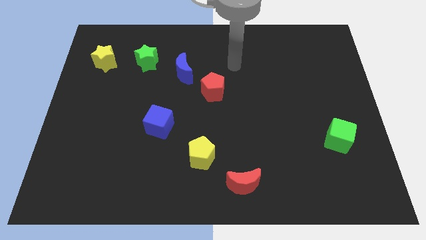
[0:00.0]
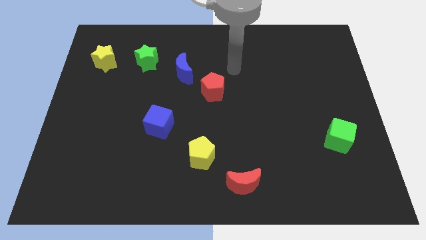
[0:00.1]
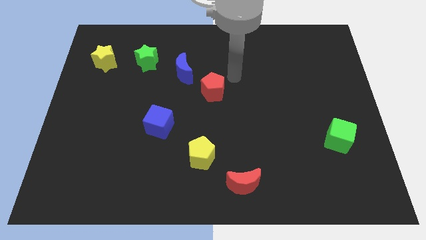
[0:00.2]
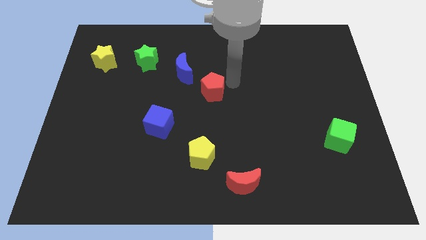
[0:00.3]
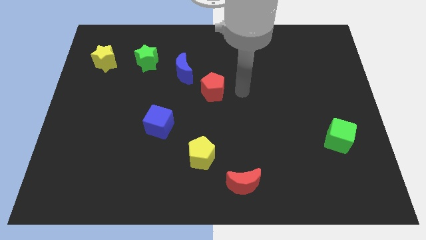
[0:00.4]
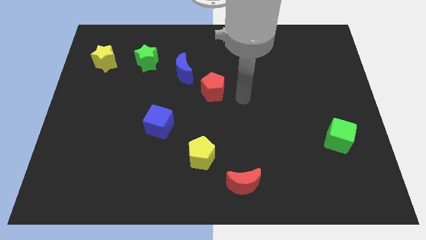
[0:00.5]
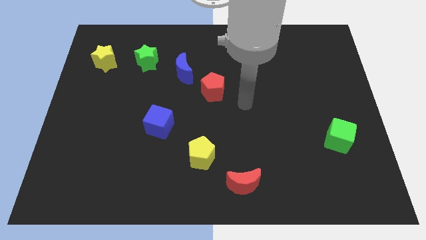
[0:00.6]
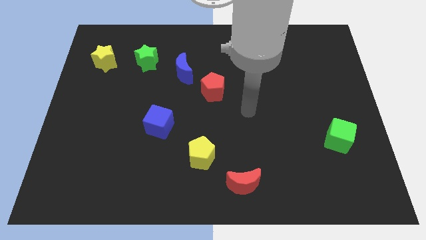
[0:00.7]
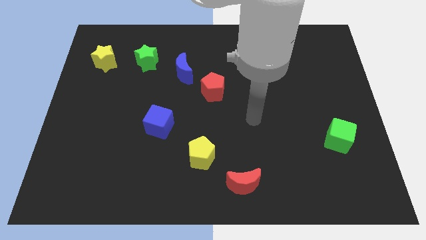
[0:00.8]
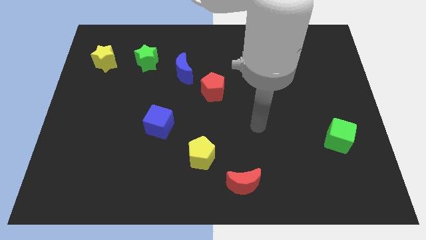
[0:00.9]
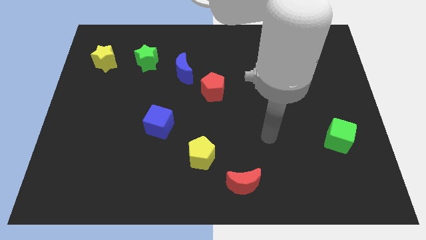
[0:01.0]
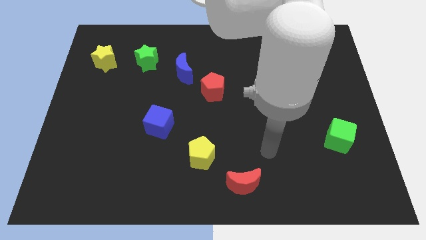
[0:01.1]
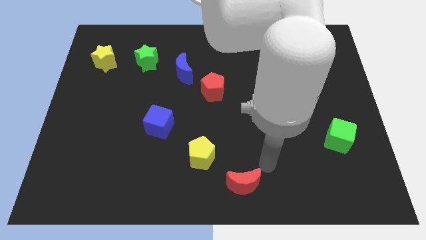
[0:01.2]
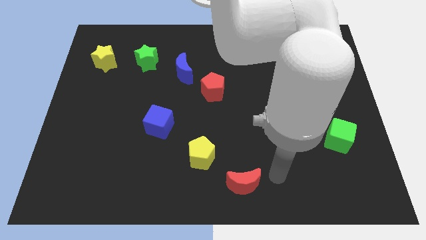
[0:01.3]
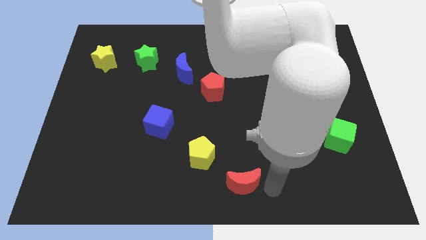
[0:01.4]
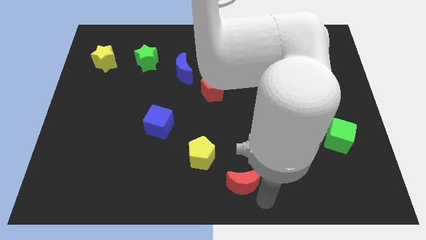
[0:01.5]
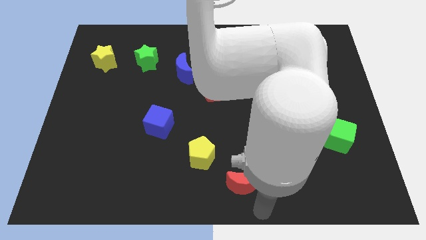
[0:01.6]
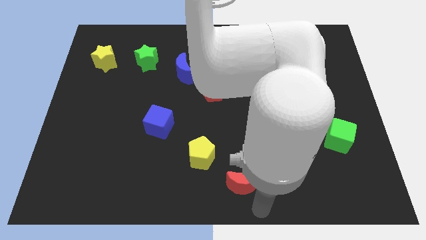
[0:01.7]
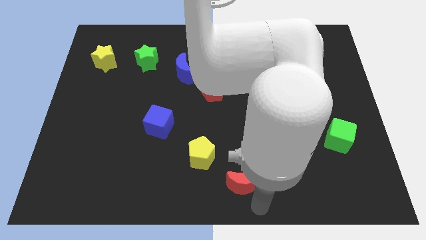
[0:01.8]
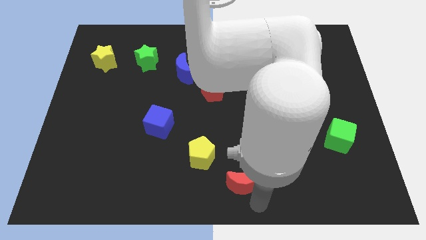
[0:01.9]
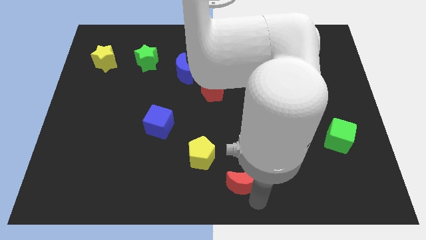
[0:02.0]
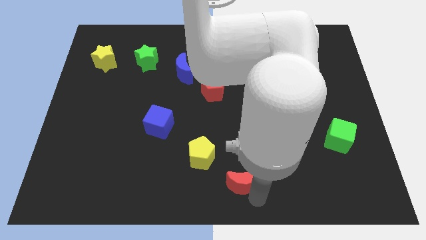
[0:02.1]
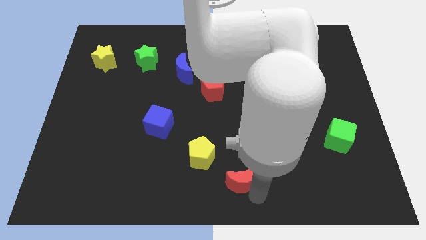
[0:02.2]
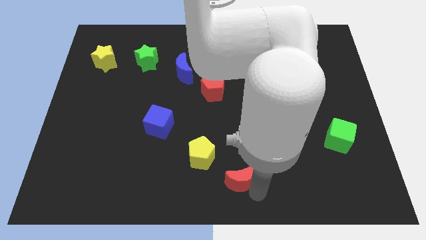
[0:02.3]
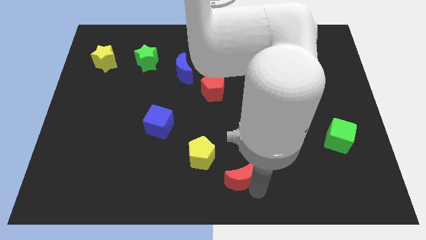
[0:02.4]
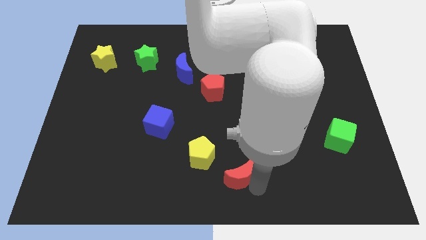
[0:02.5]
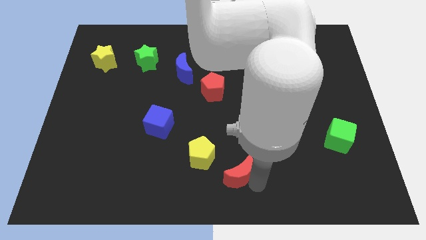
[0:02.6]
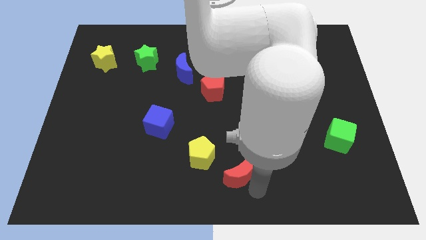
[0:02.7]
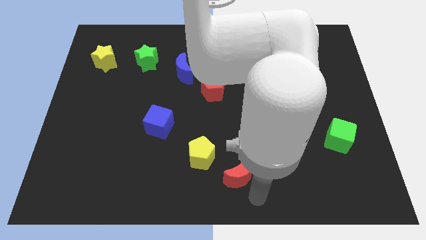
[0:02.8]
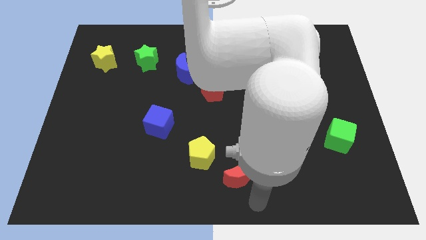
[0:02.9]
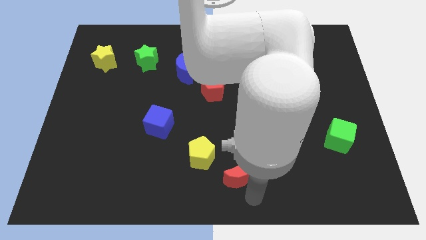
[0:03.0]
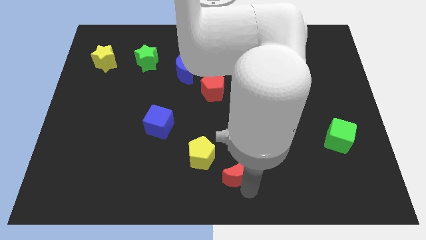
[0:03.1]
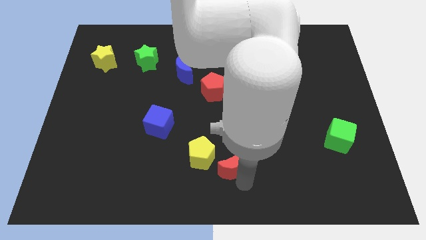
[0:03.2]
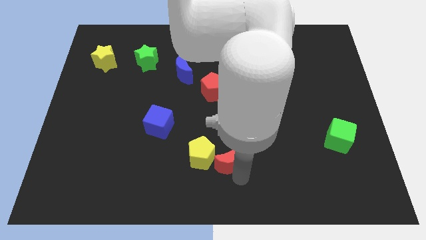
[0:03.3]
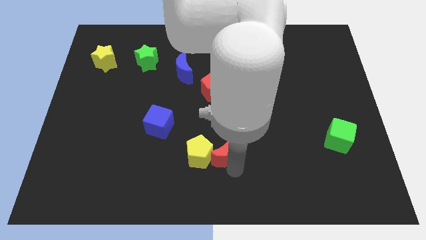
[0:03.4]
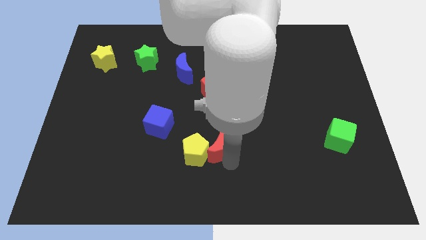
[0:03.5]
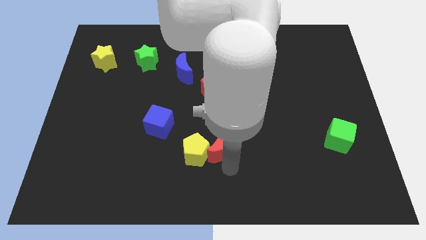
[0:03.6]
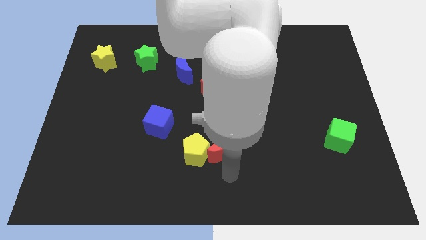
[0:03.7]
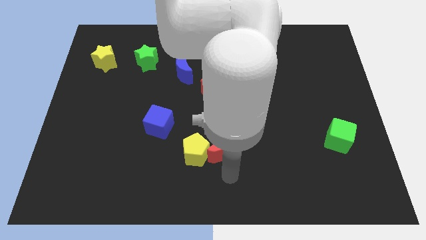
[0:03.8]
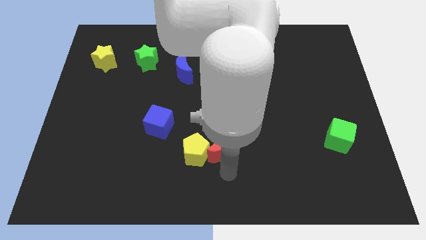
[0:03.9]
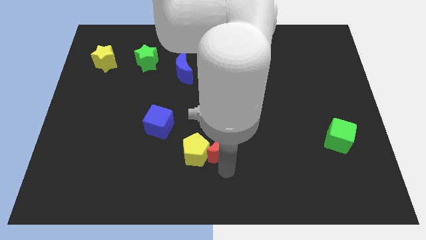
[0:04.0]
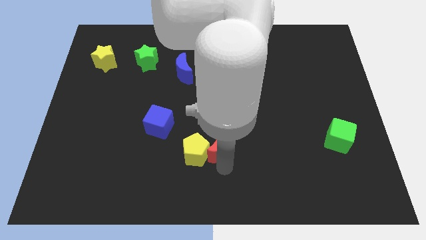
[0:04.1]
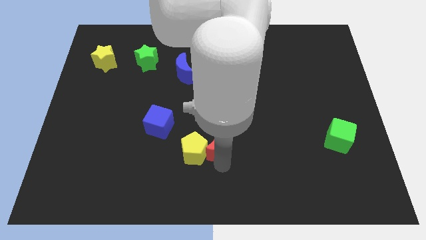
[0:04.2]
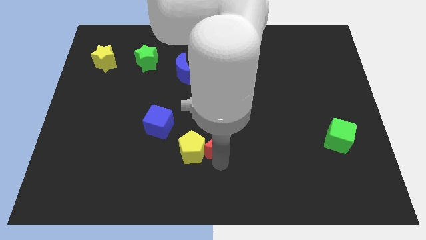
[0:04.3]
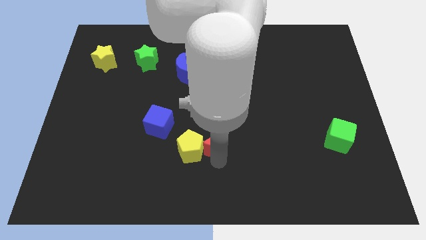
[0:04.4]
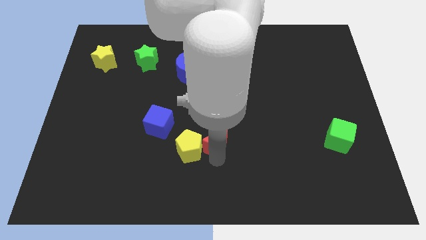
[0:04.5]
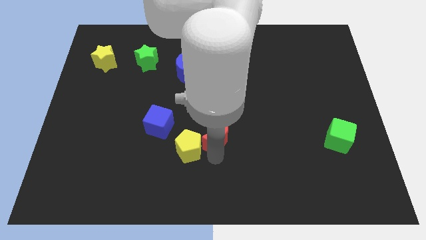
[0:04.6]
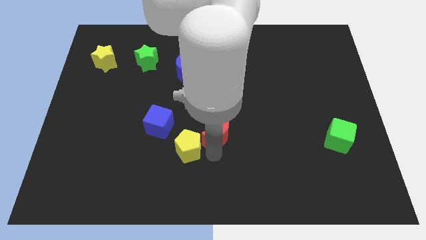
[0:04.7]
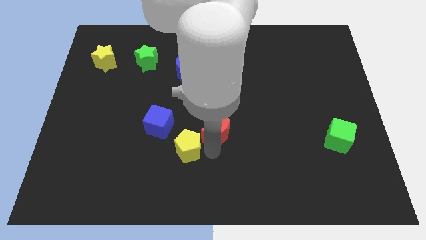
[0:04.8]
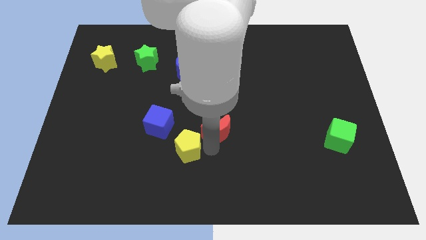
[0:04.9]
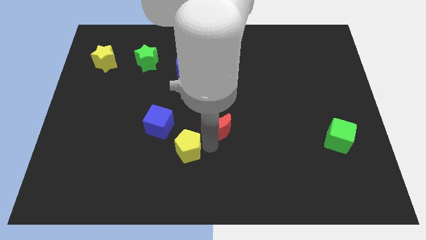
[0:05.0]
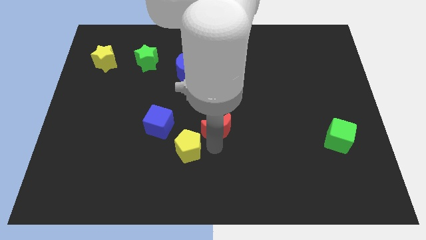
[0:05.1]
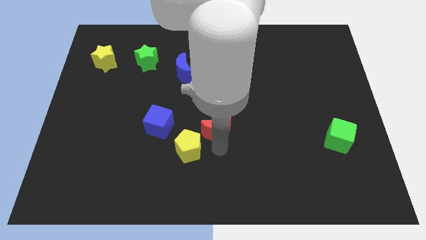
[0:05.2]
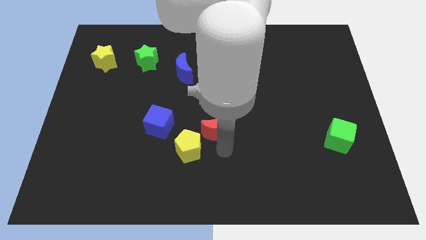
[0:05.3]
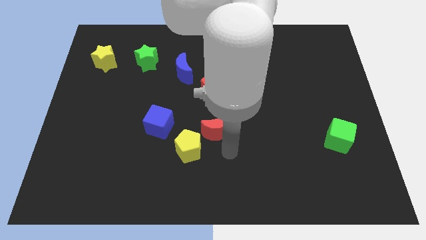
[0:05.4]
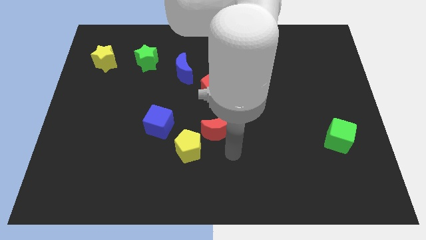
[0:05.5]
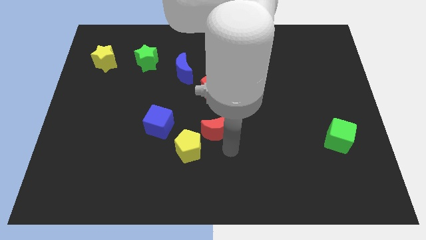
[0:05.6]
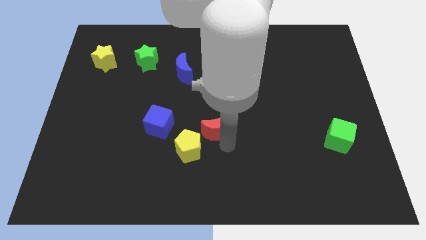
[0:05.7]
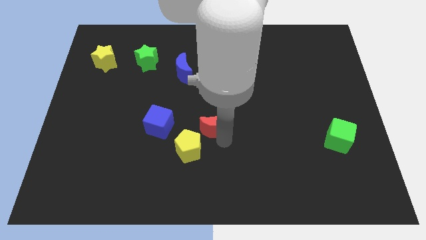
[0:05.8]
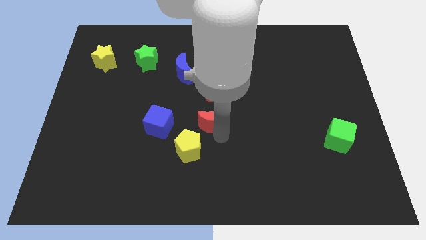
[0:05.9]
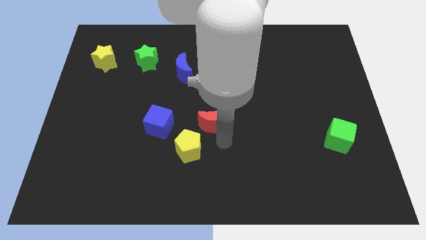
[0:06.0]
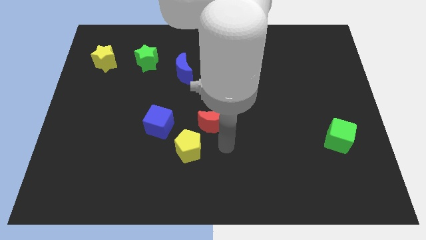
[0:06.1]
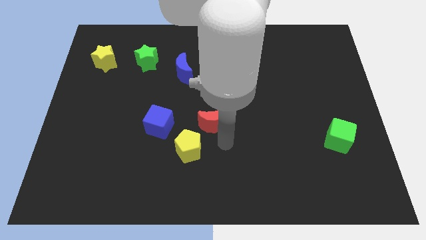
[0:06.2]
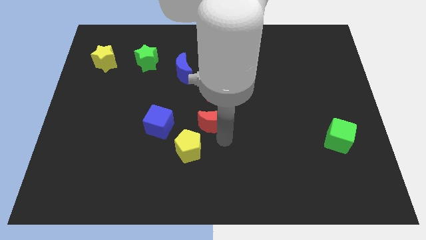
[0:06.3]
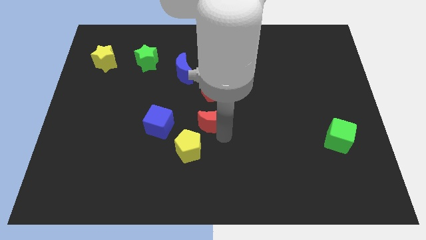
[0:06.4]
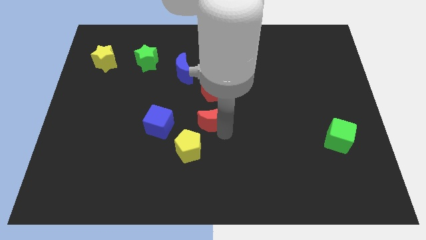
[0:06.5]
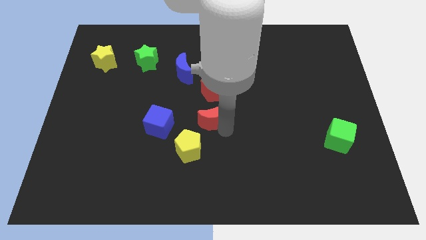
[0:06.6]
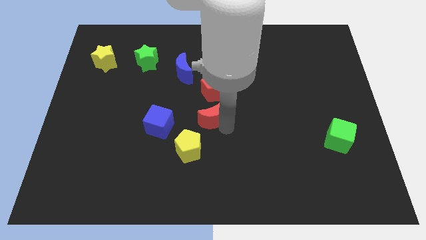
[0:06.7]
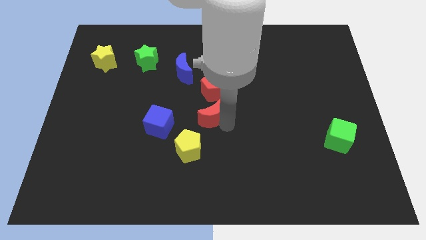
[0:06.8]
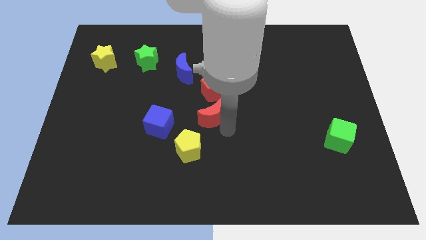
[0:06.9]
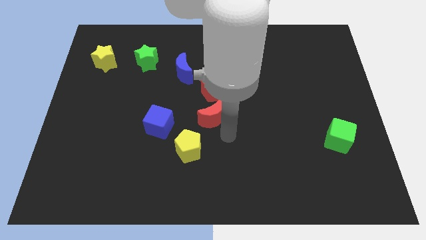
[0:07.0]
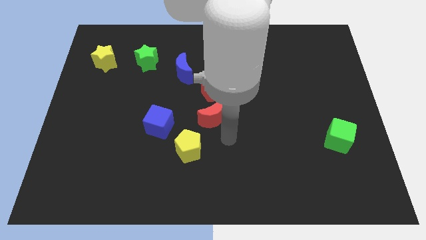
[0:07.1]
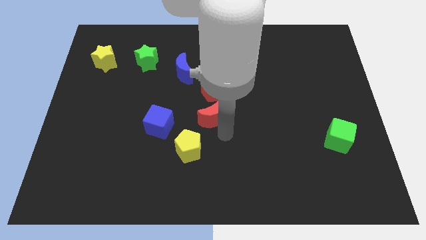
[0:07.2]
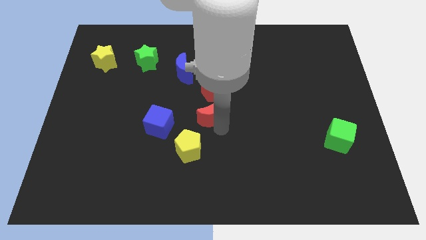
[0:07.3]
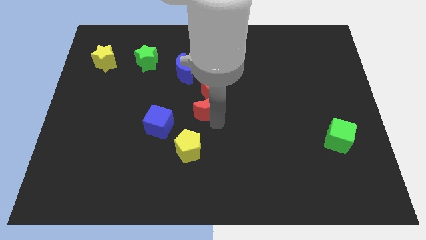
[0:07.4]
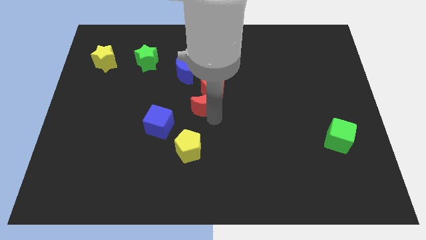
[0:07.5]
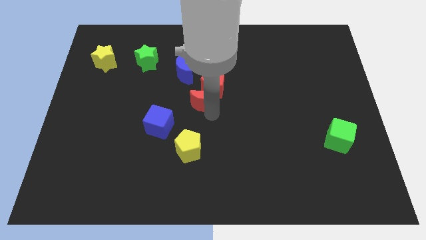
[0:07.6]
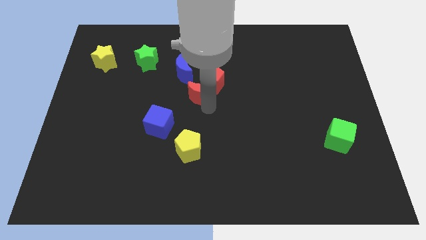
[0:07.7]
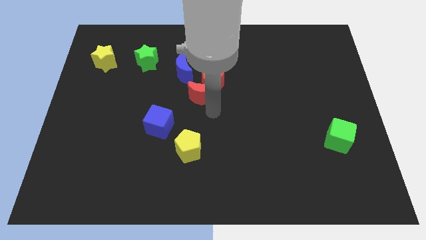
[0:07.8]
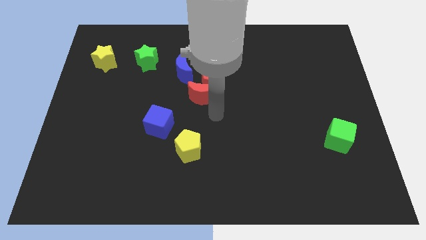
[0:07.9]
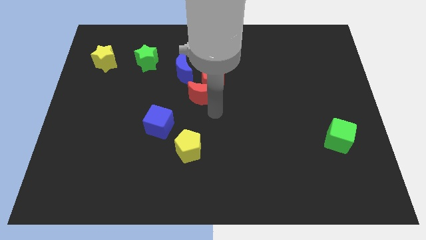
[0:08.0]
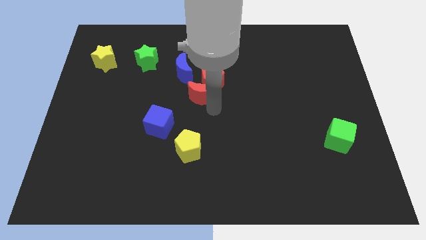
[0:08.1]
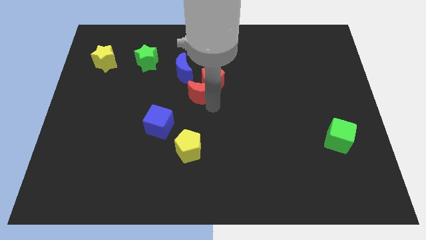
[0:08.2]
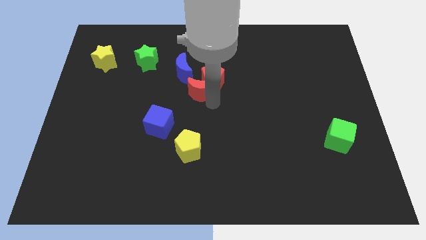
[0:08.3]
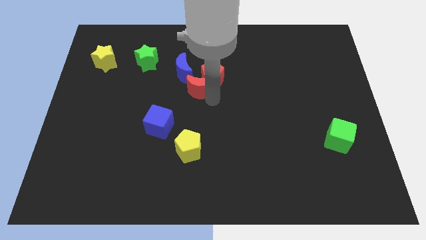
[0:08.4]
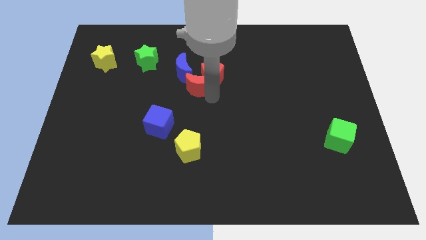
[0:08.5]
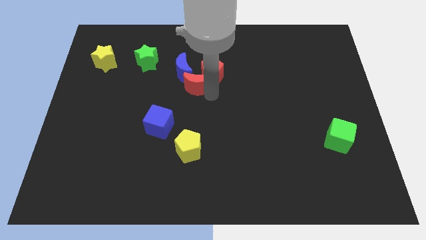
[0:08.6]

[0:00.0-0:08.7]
move the red moon next to the blue moon
